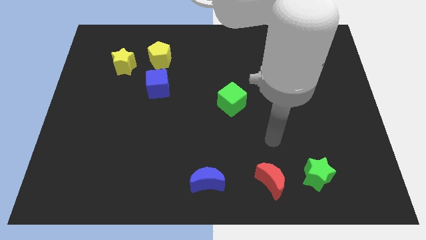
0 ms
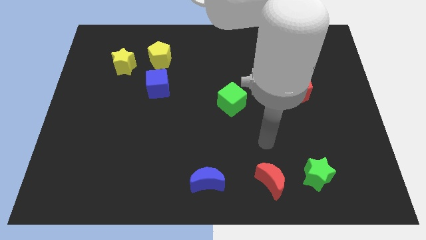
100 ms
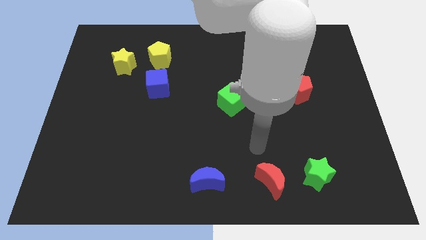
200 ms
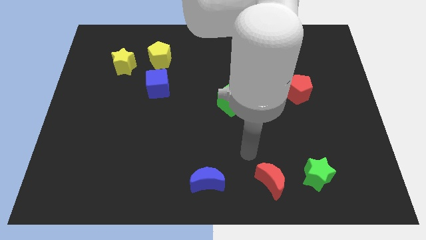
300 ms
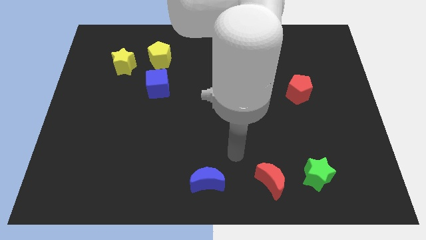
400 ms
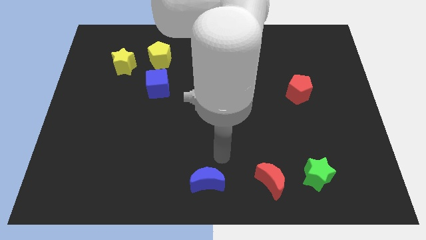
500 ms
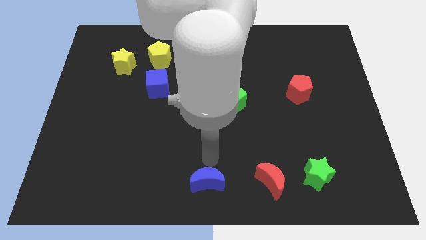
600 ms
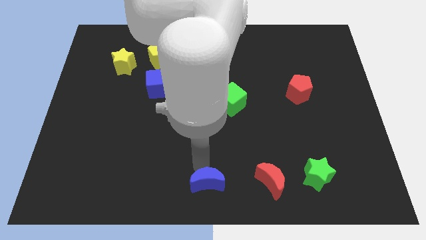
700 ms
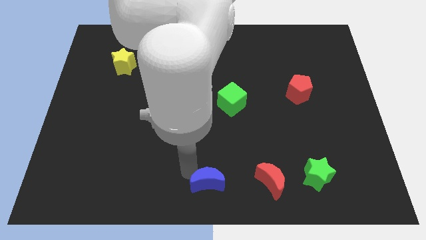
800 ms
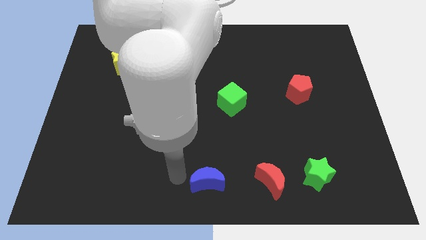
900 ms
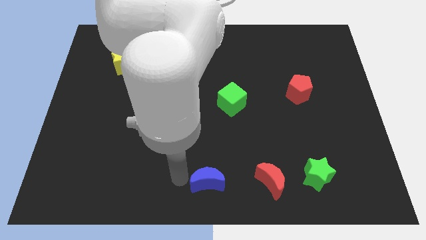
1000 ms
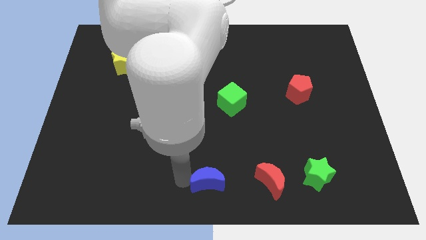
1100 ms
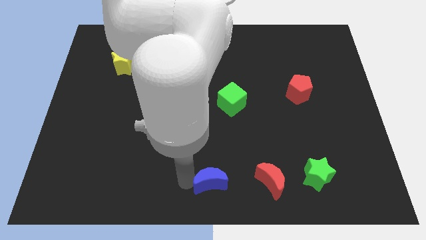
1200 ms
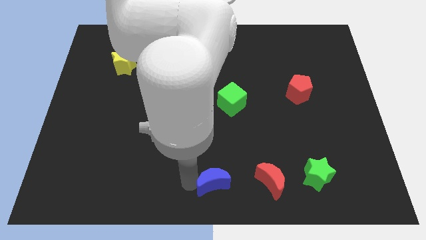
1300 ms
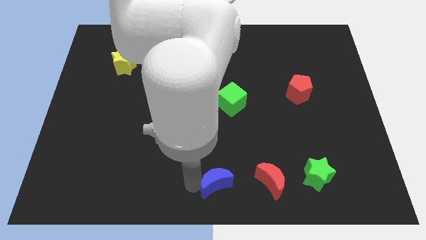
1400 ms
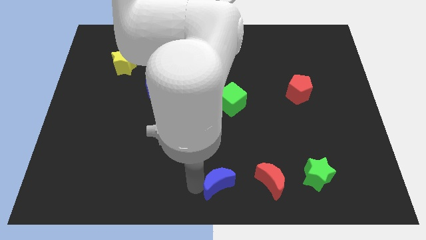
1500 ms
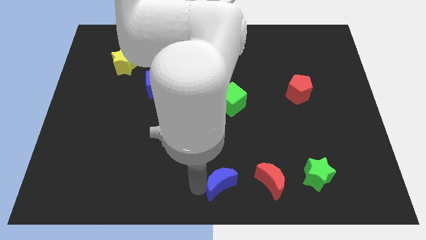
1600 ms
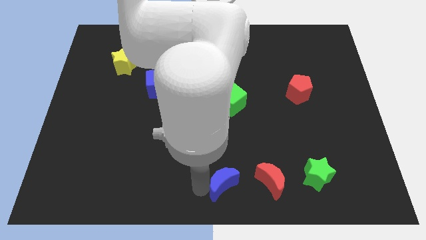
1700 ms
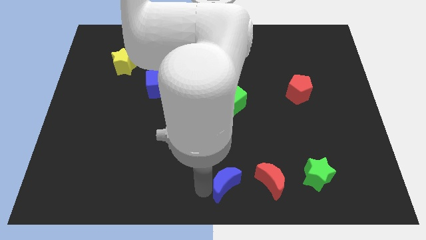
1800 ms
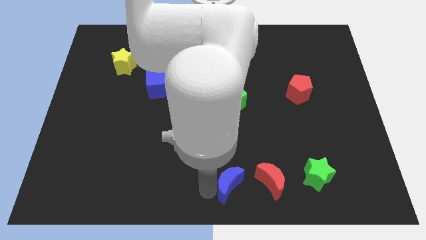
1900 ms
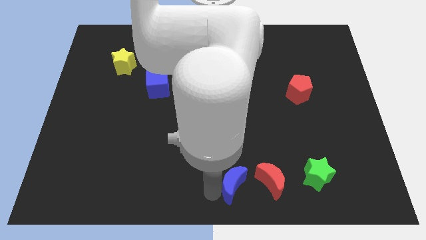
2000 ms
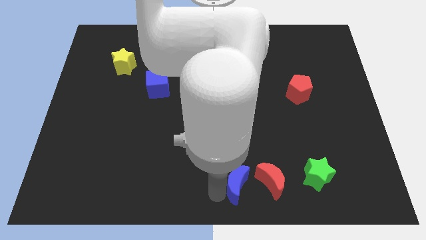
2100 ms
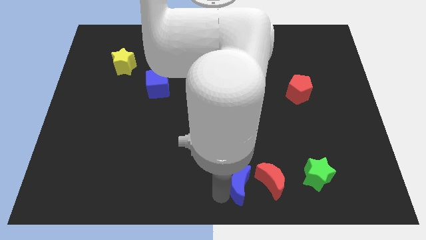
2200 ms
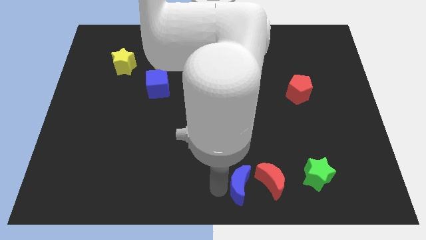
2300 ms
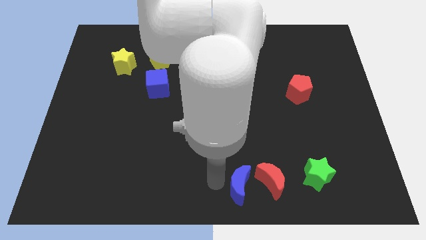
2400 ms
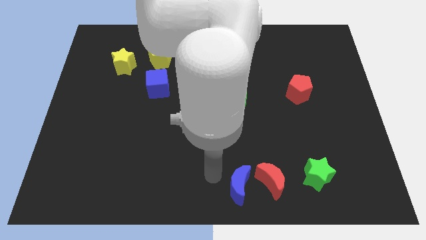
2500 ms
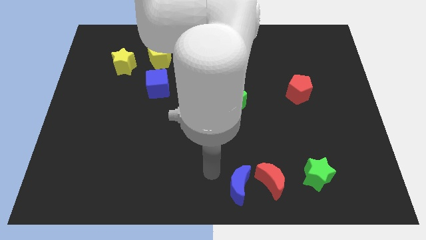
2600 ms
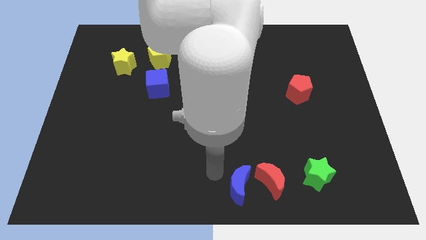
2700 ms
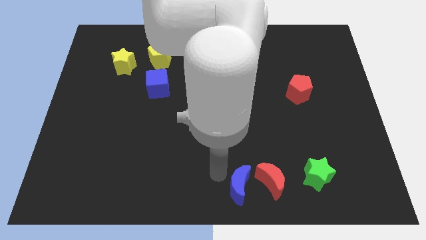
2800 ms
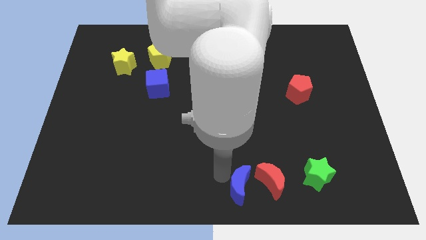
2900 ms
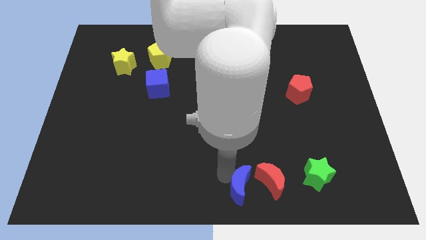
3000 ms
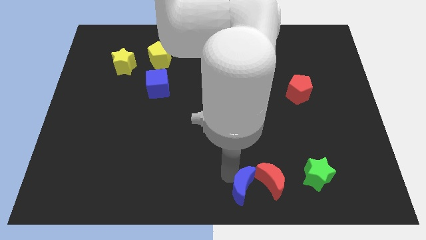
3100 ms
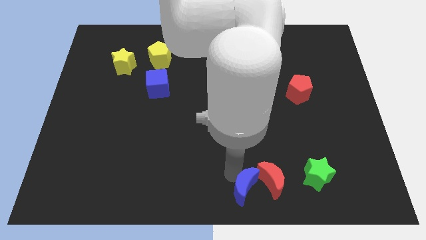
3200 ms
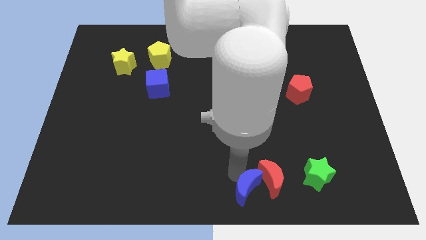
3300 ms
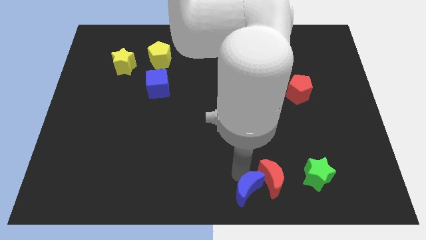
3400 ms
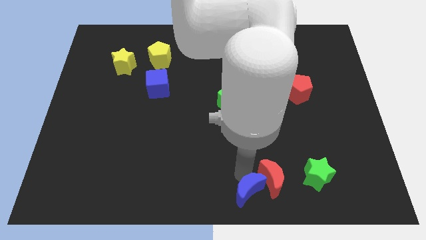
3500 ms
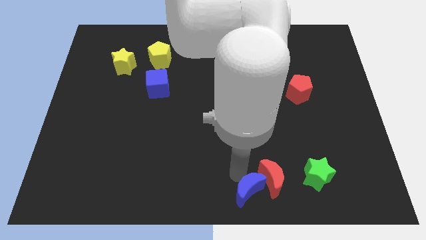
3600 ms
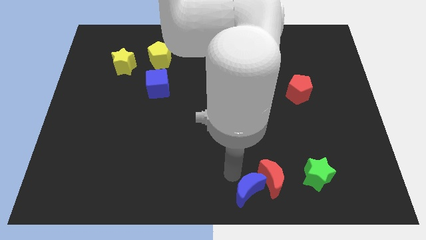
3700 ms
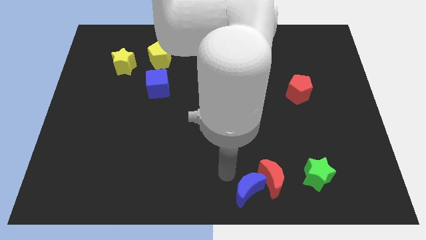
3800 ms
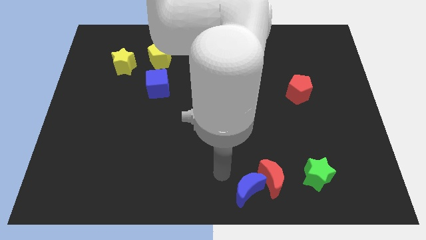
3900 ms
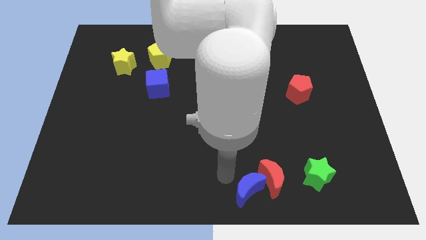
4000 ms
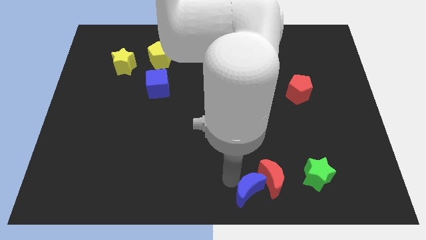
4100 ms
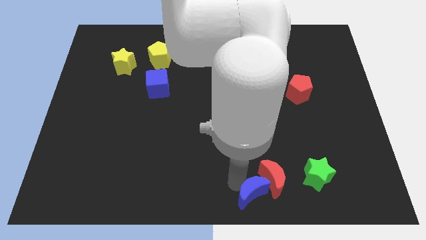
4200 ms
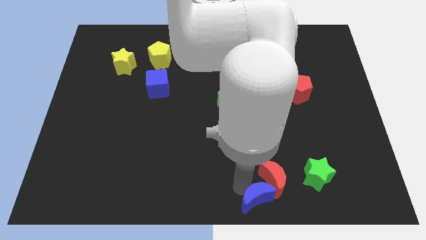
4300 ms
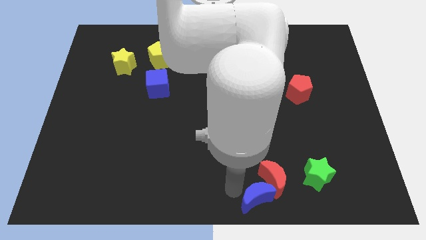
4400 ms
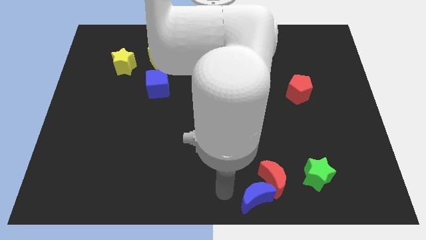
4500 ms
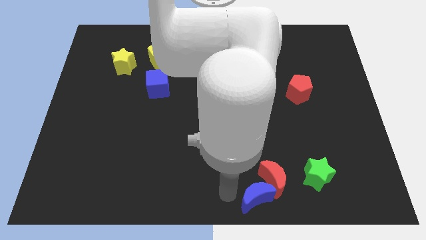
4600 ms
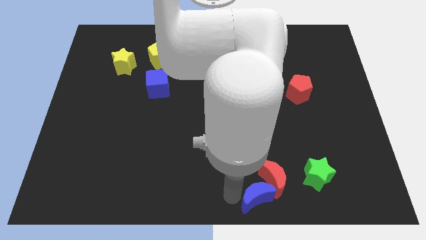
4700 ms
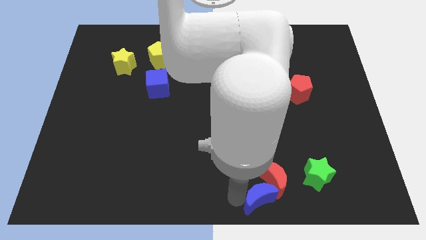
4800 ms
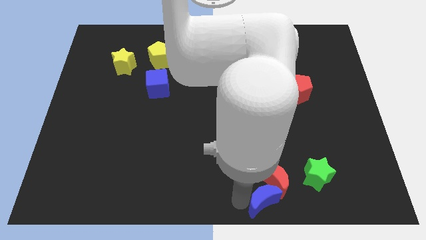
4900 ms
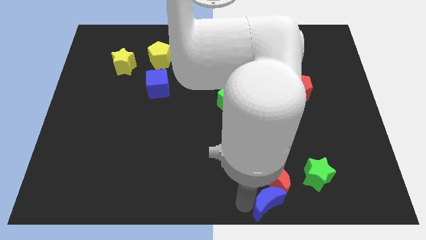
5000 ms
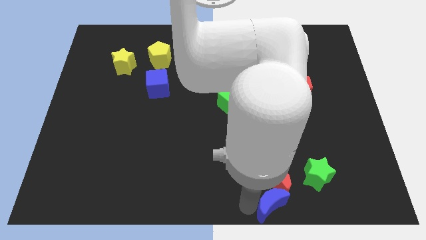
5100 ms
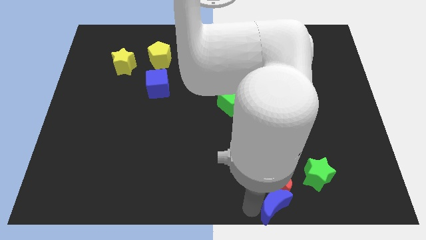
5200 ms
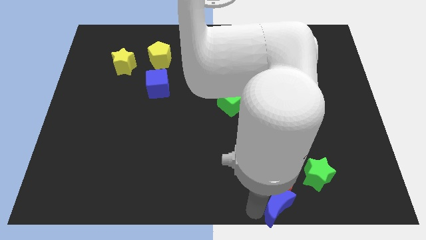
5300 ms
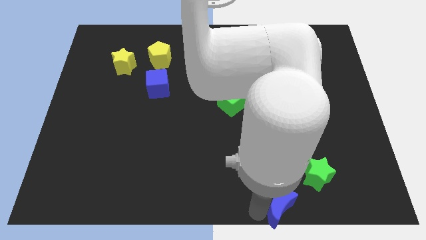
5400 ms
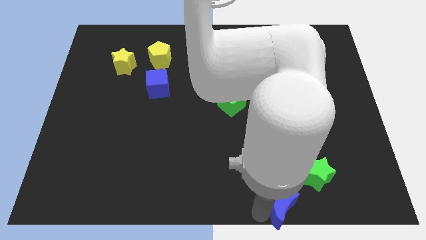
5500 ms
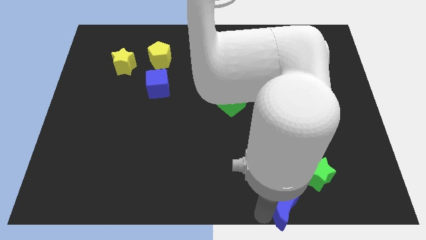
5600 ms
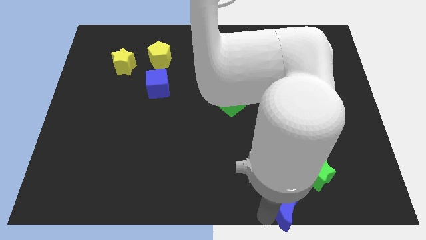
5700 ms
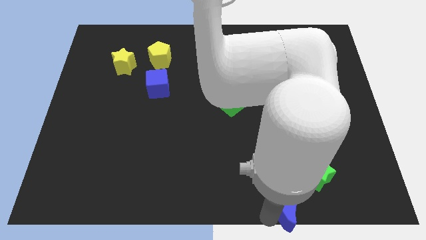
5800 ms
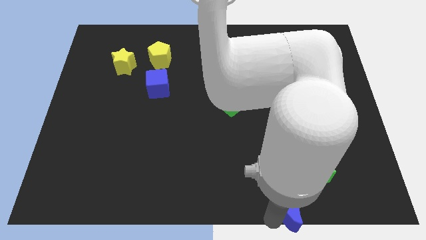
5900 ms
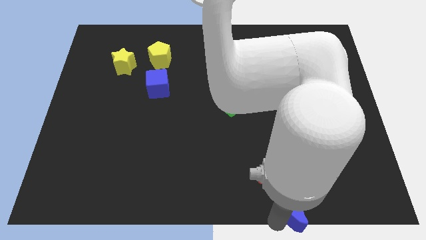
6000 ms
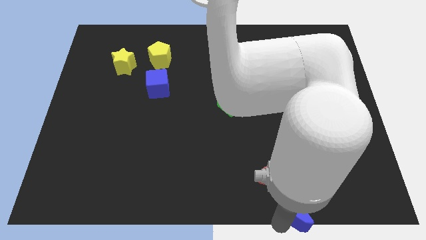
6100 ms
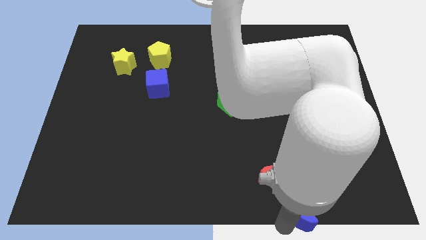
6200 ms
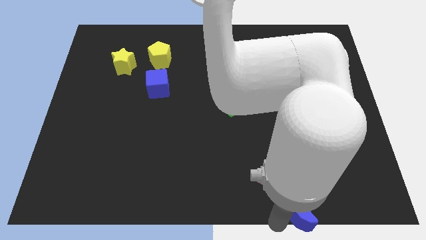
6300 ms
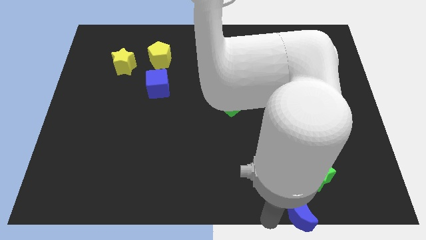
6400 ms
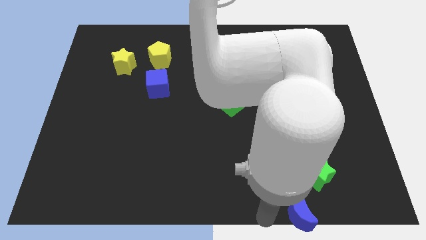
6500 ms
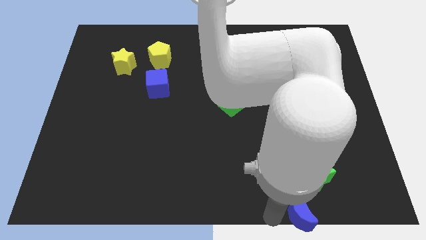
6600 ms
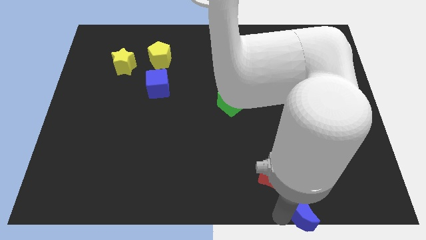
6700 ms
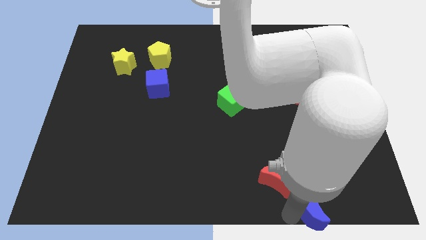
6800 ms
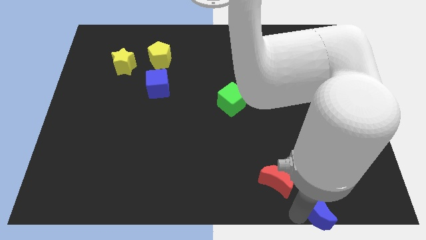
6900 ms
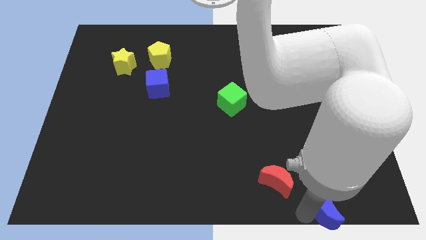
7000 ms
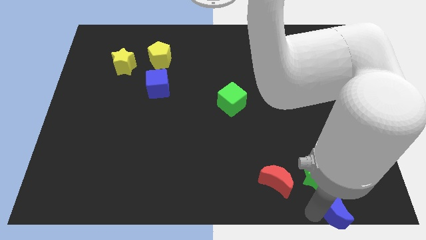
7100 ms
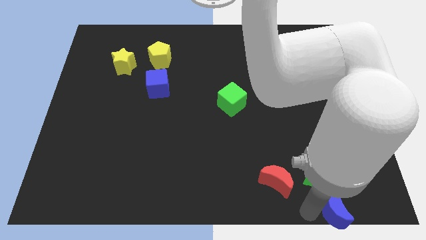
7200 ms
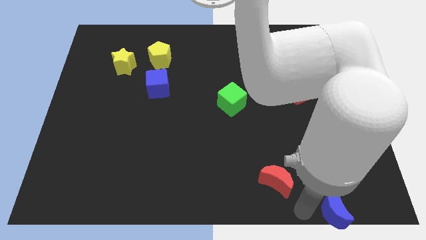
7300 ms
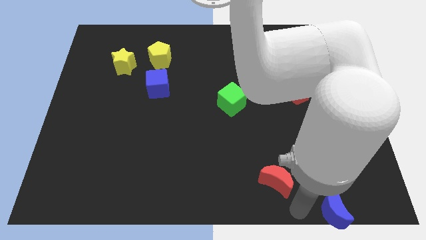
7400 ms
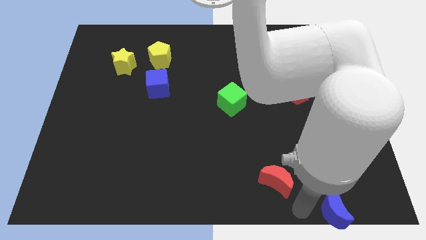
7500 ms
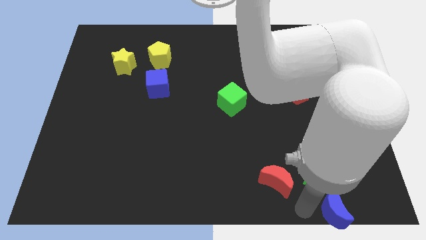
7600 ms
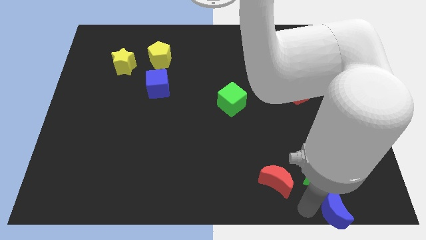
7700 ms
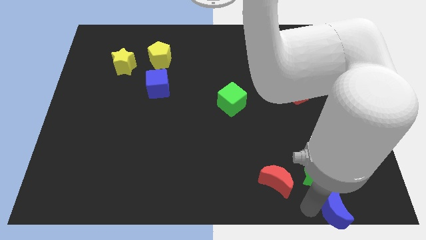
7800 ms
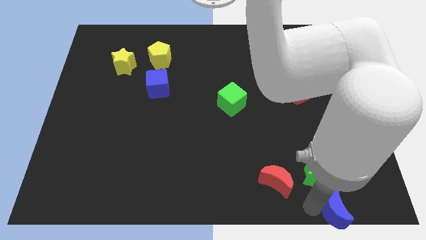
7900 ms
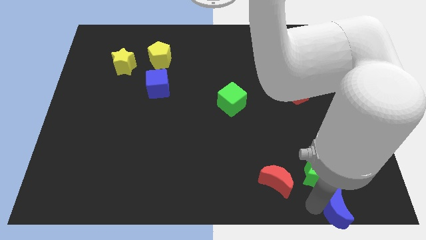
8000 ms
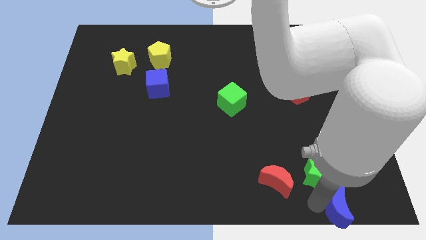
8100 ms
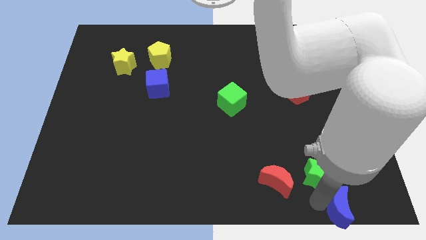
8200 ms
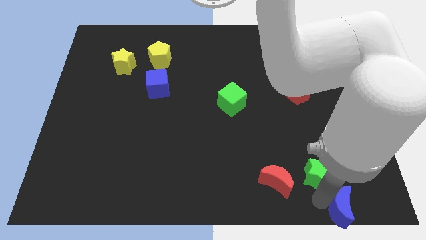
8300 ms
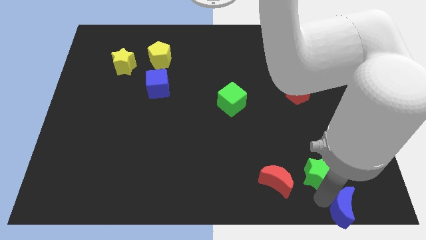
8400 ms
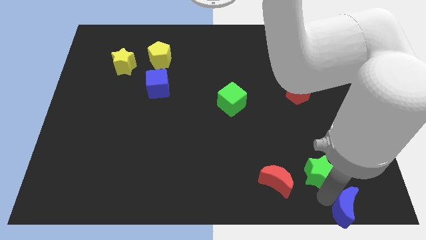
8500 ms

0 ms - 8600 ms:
put the blue moon to the bottom right corner
